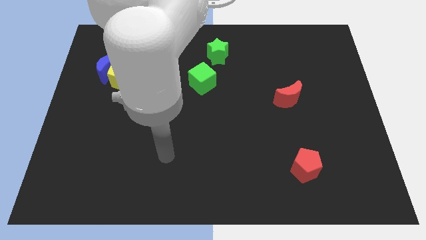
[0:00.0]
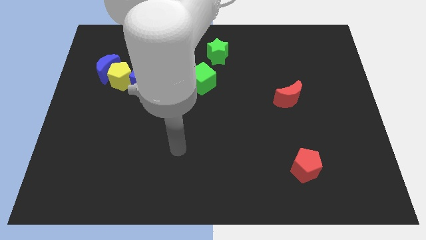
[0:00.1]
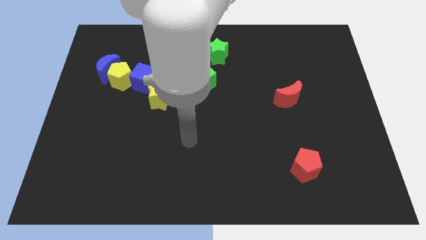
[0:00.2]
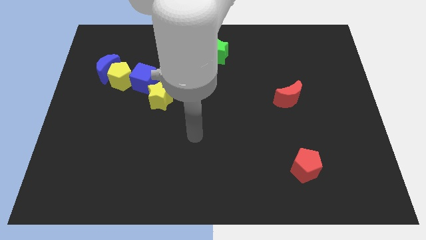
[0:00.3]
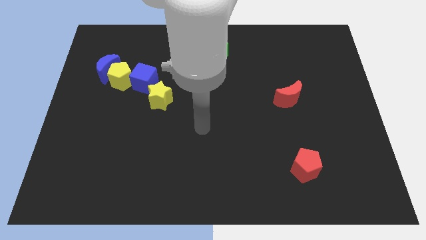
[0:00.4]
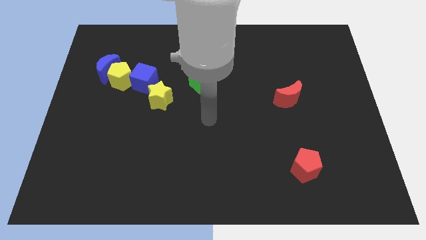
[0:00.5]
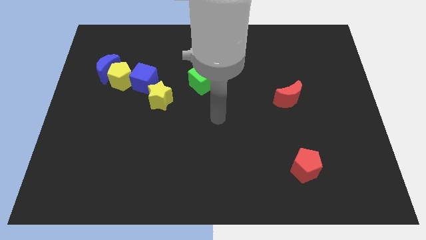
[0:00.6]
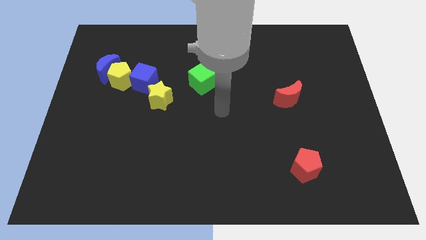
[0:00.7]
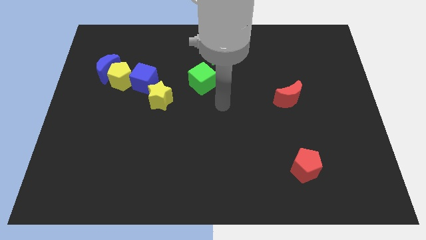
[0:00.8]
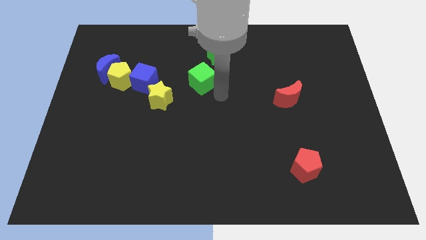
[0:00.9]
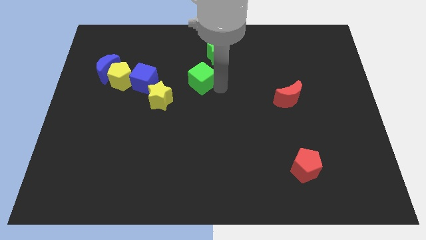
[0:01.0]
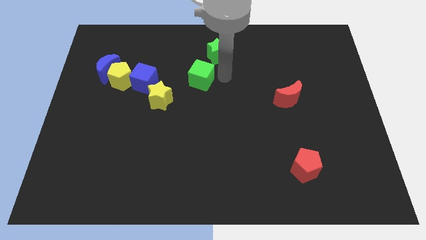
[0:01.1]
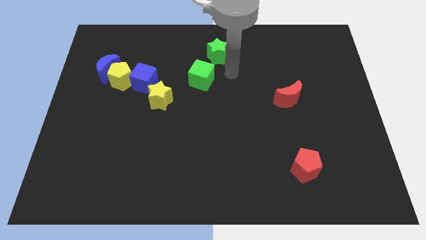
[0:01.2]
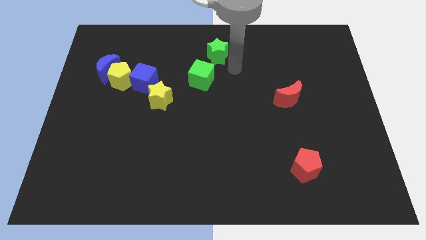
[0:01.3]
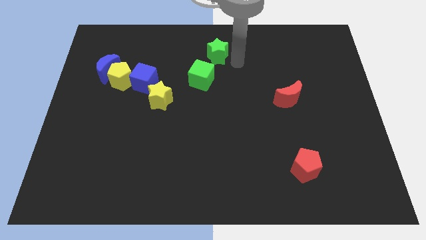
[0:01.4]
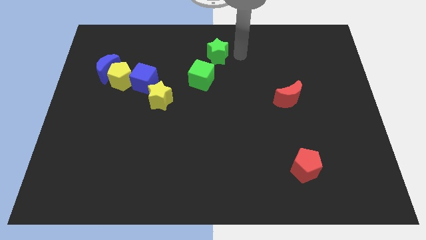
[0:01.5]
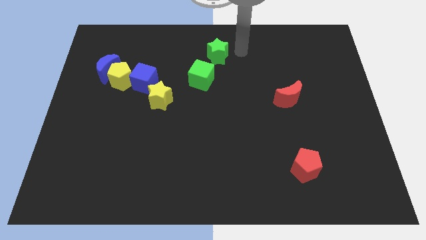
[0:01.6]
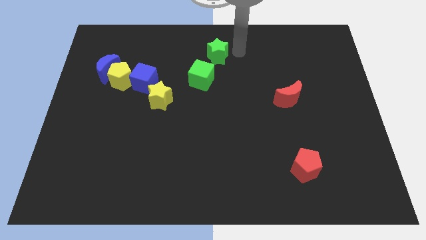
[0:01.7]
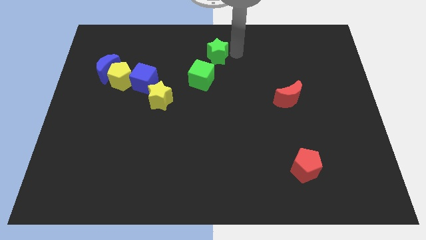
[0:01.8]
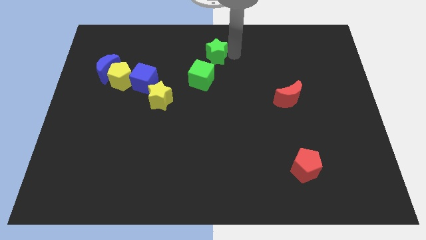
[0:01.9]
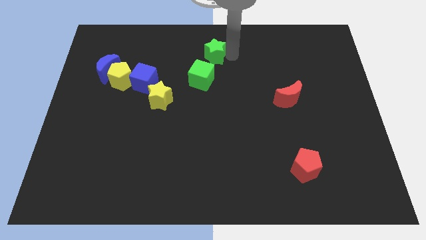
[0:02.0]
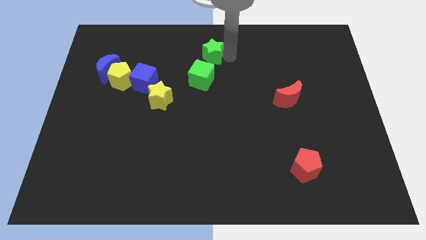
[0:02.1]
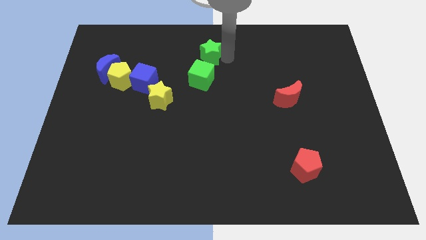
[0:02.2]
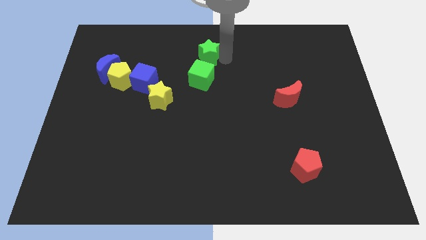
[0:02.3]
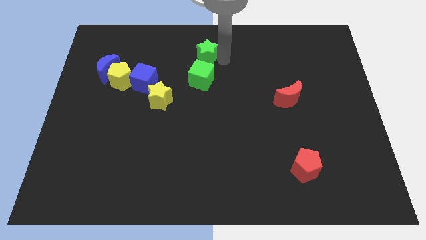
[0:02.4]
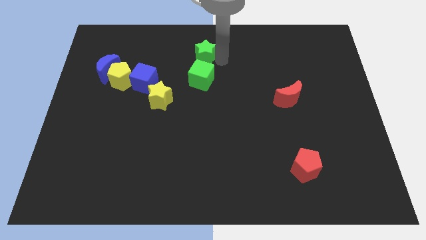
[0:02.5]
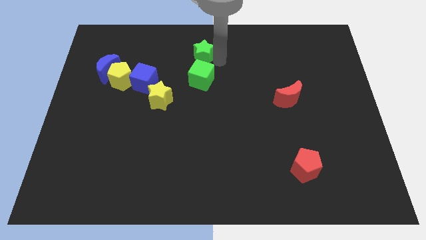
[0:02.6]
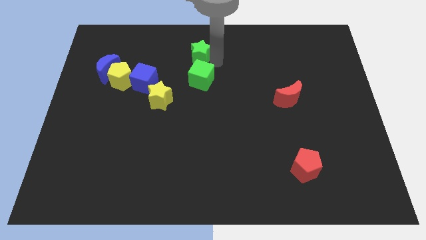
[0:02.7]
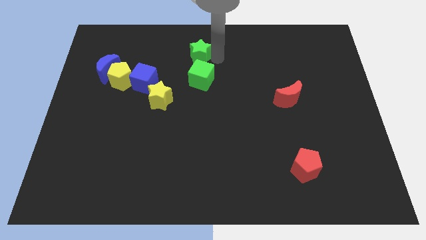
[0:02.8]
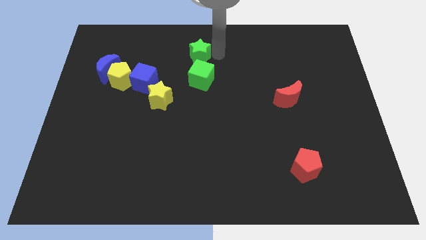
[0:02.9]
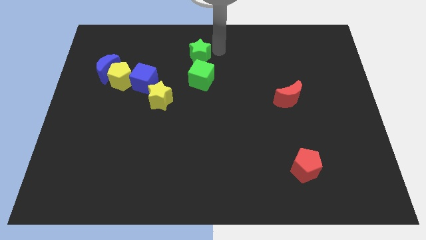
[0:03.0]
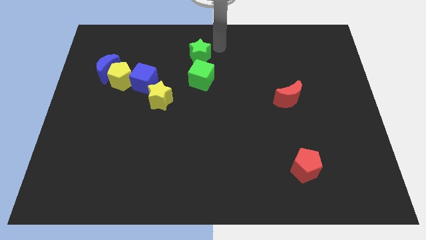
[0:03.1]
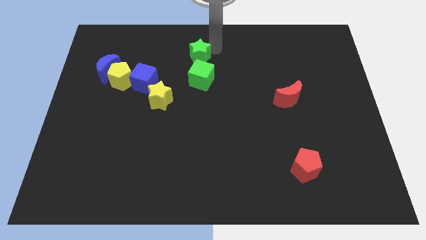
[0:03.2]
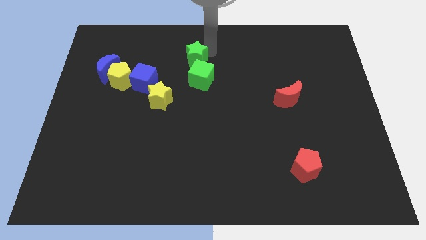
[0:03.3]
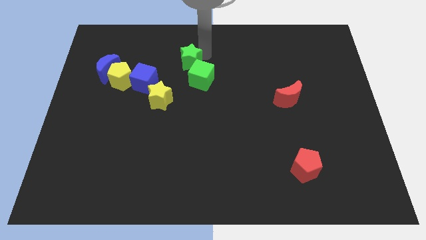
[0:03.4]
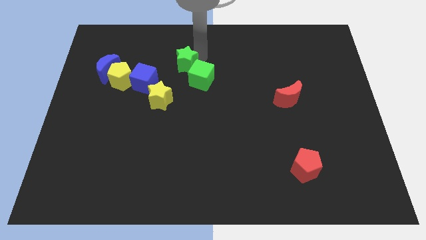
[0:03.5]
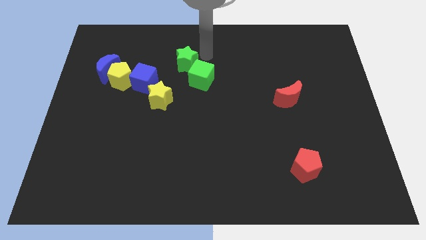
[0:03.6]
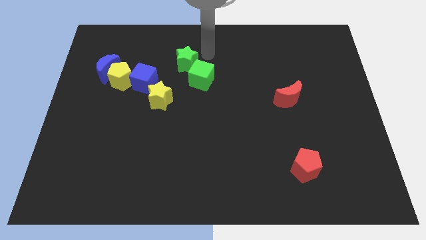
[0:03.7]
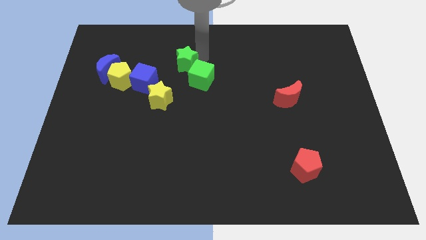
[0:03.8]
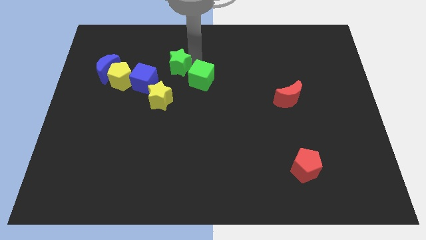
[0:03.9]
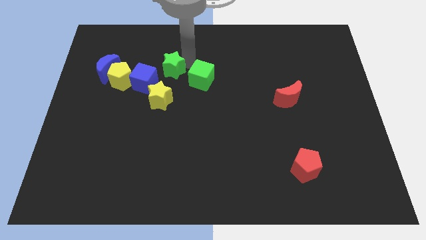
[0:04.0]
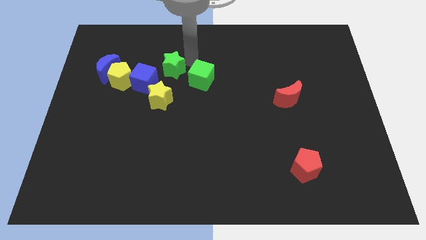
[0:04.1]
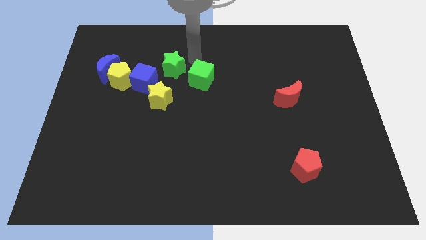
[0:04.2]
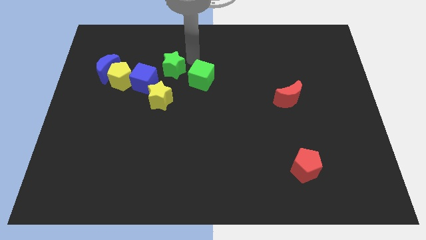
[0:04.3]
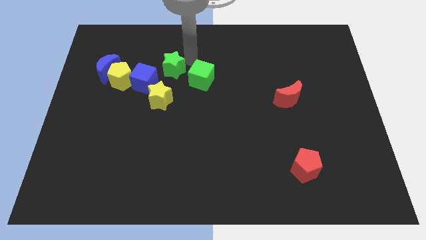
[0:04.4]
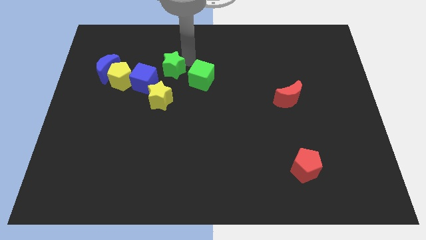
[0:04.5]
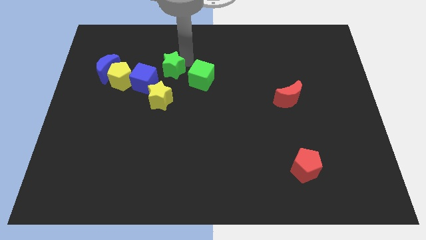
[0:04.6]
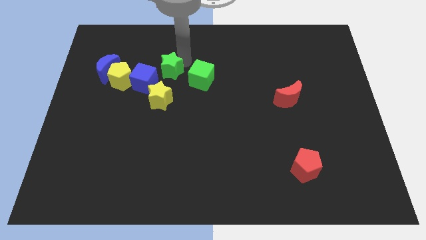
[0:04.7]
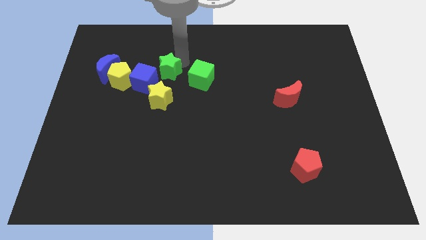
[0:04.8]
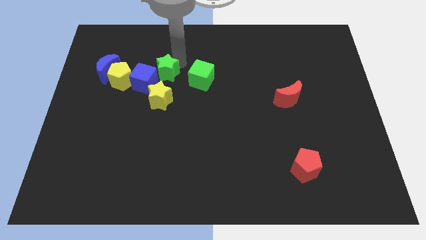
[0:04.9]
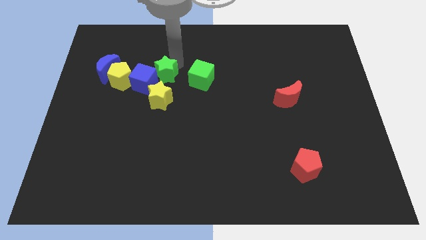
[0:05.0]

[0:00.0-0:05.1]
push the green star towards the blue cube

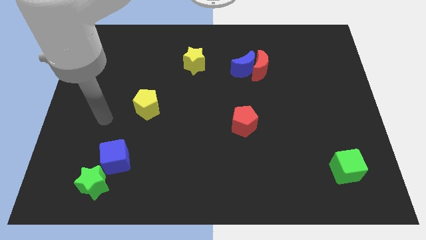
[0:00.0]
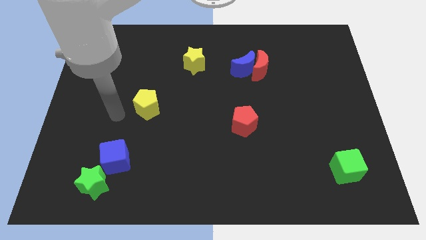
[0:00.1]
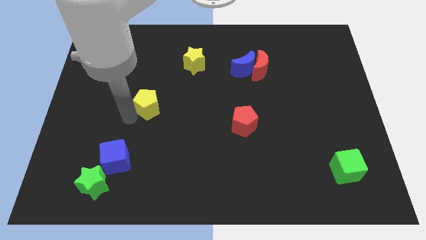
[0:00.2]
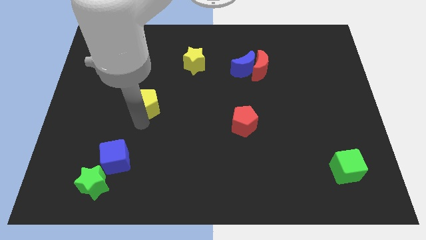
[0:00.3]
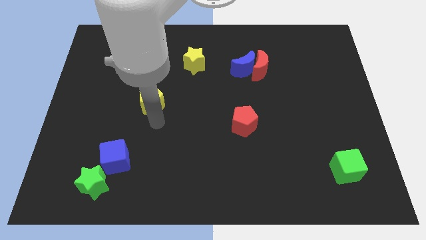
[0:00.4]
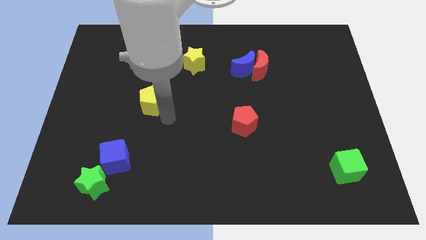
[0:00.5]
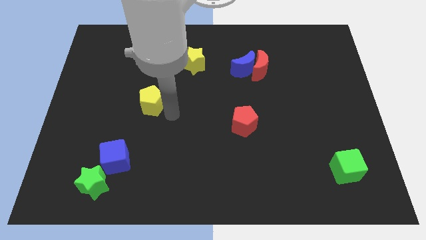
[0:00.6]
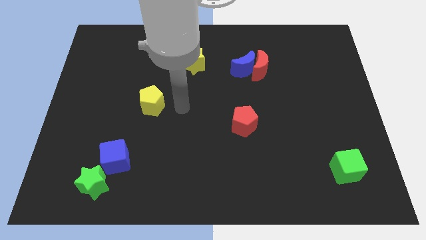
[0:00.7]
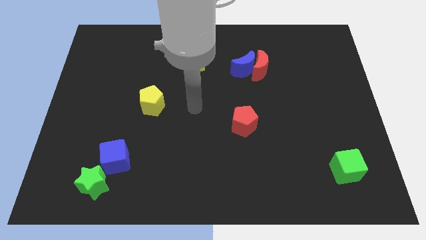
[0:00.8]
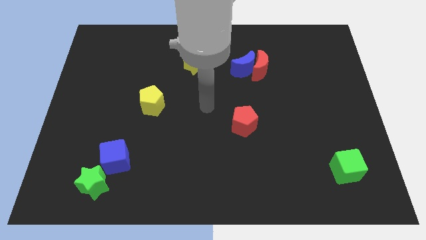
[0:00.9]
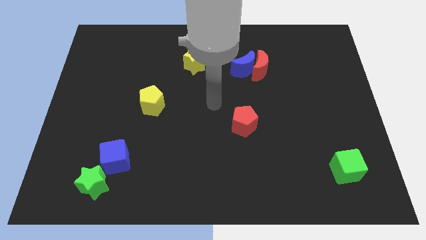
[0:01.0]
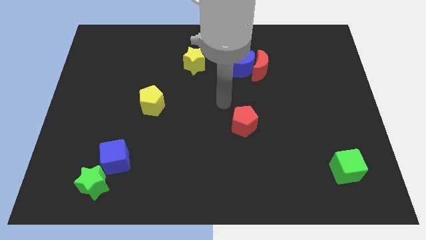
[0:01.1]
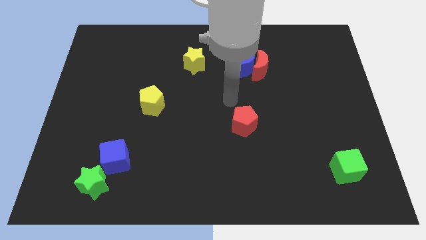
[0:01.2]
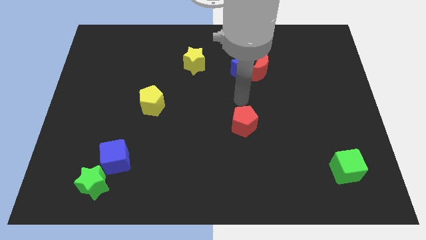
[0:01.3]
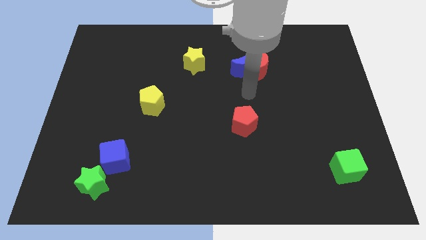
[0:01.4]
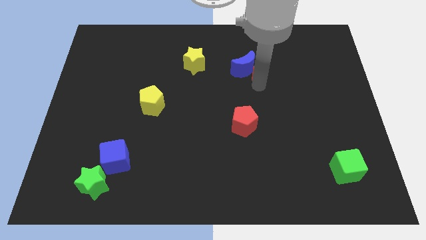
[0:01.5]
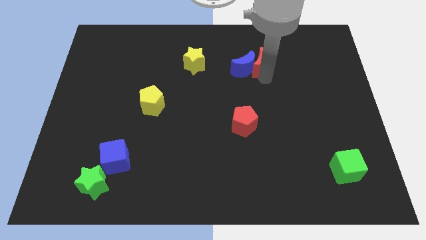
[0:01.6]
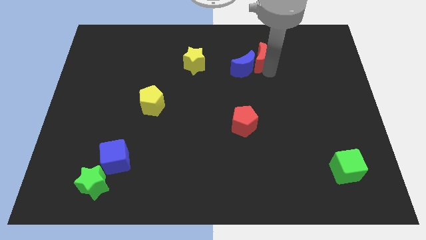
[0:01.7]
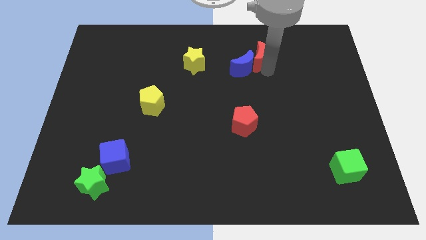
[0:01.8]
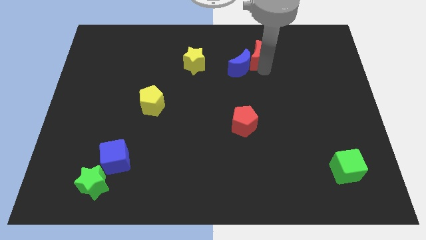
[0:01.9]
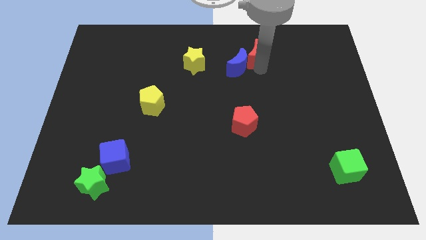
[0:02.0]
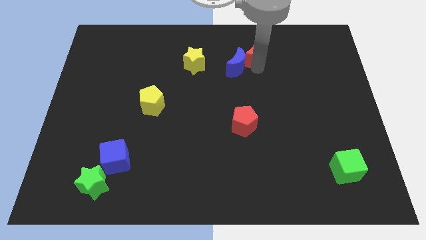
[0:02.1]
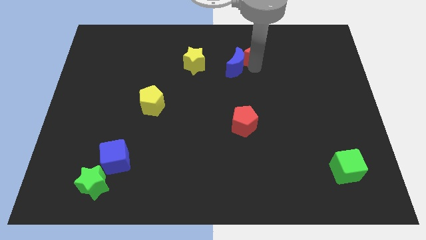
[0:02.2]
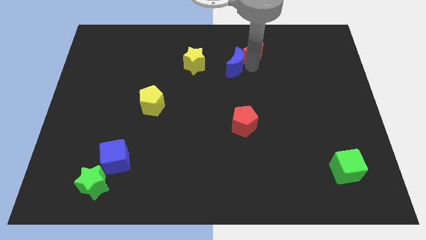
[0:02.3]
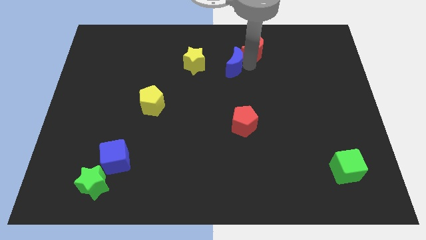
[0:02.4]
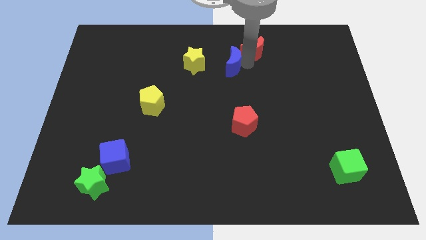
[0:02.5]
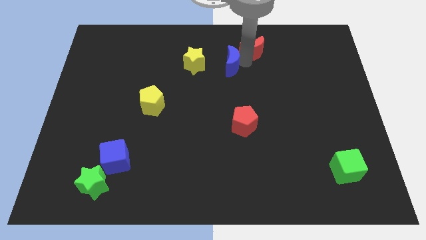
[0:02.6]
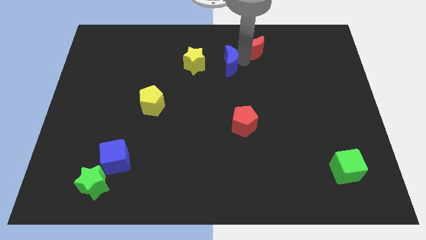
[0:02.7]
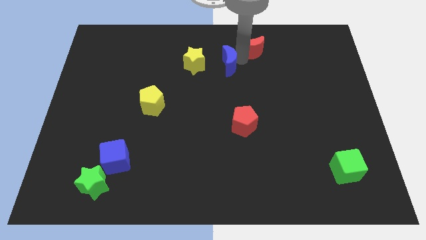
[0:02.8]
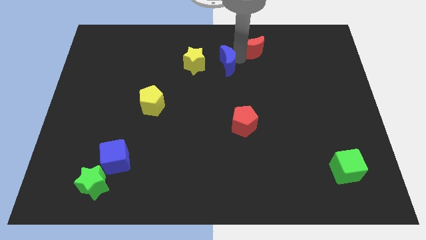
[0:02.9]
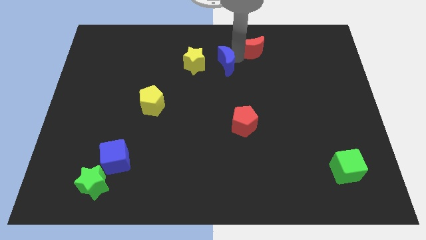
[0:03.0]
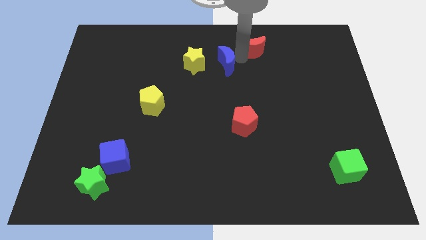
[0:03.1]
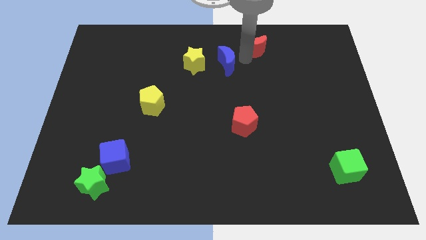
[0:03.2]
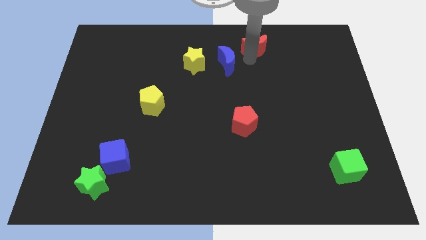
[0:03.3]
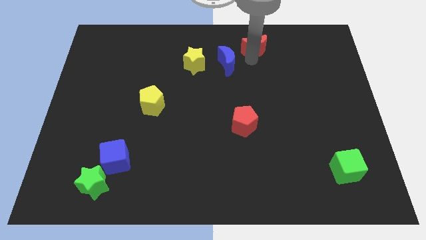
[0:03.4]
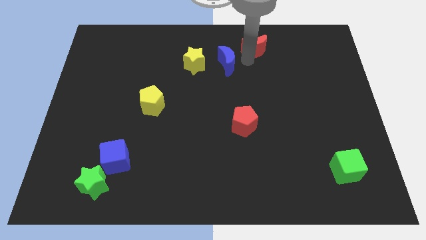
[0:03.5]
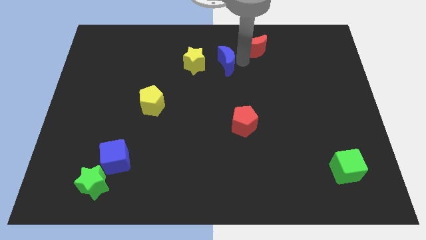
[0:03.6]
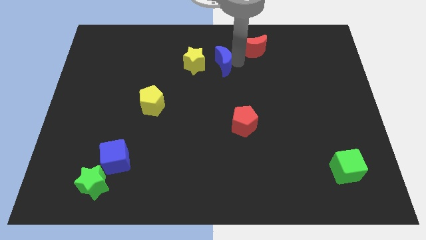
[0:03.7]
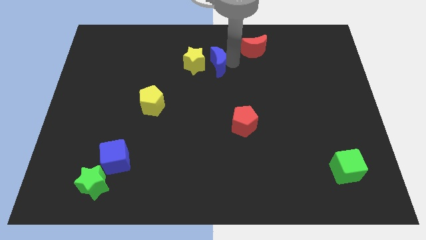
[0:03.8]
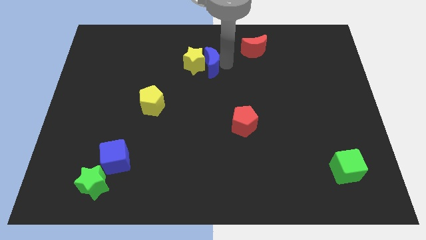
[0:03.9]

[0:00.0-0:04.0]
move the blue moon towards the yellow star
